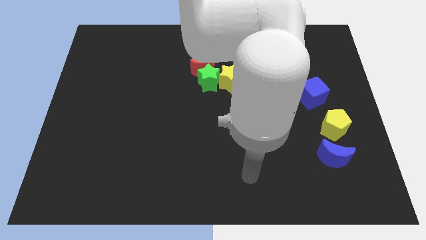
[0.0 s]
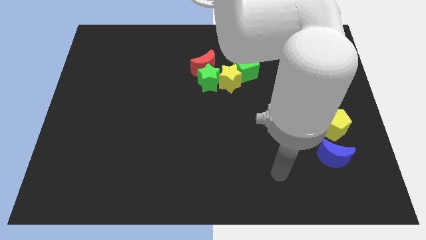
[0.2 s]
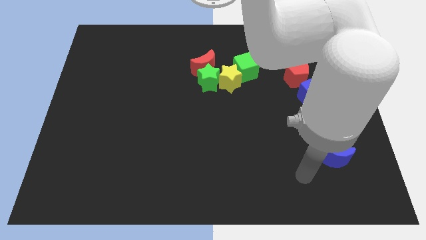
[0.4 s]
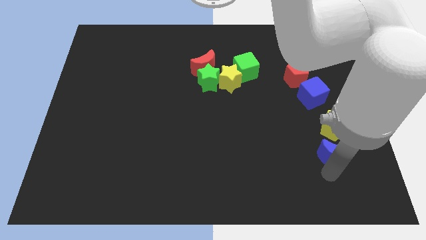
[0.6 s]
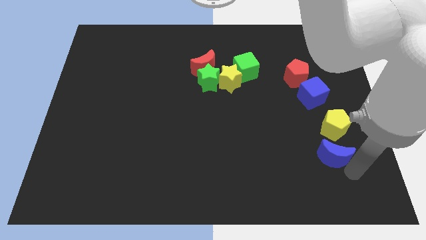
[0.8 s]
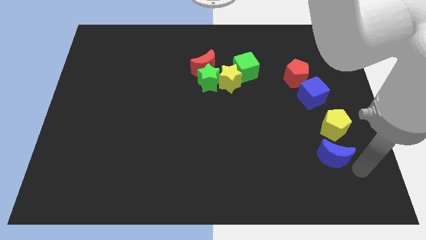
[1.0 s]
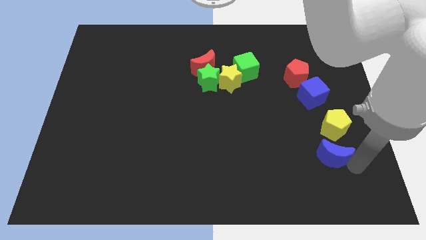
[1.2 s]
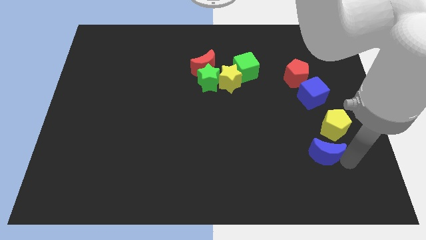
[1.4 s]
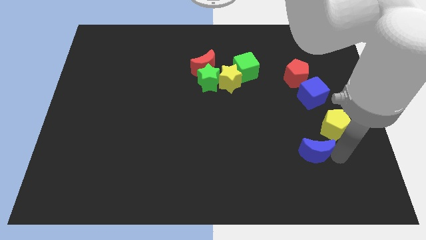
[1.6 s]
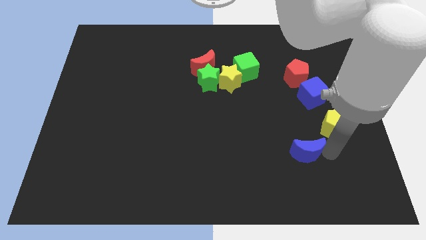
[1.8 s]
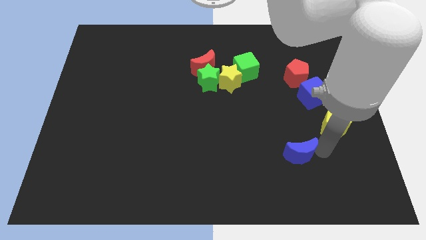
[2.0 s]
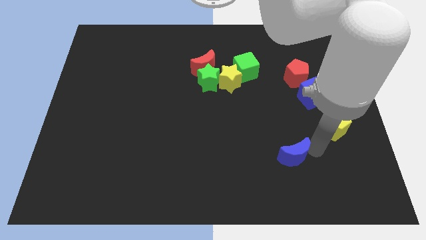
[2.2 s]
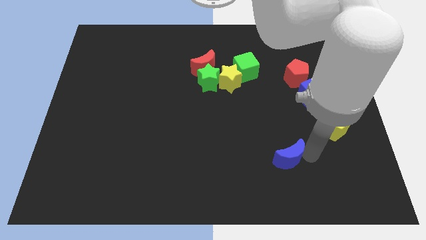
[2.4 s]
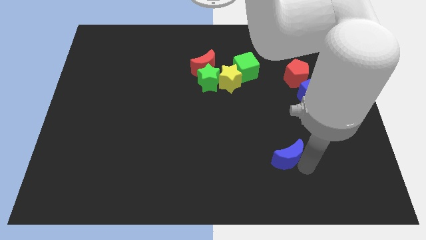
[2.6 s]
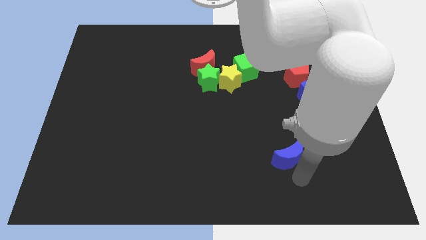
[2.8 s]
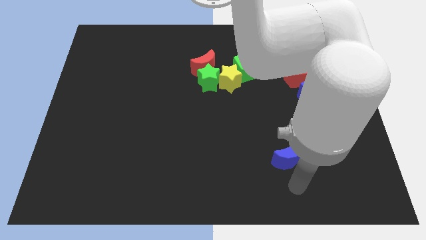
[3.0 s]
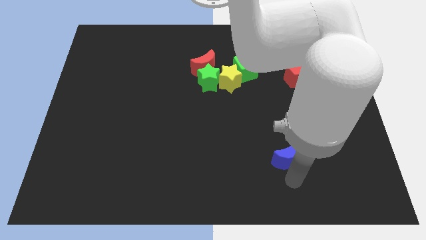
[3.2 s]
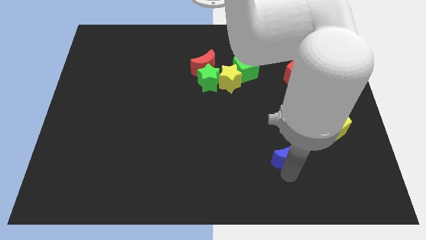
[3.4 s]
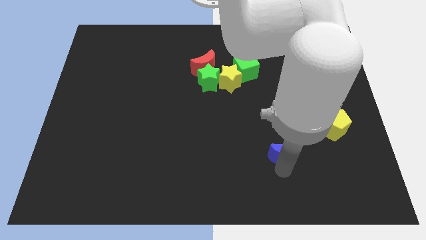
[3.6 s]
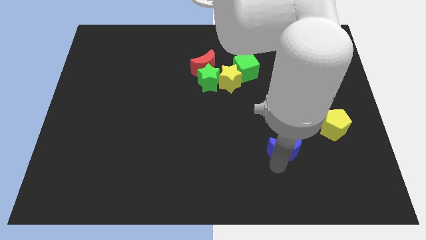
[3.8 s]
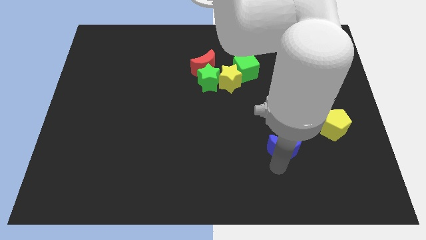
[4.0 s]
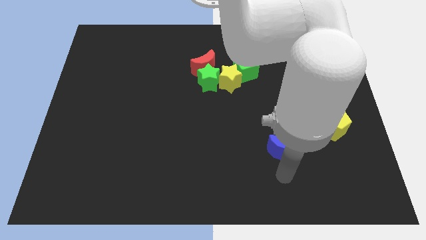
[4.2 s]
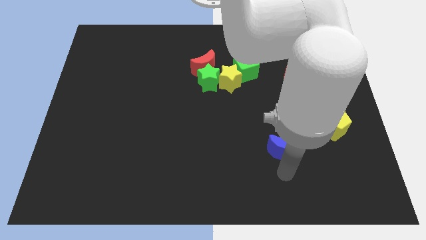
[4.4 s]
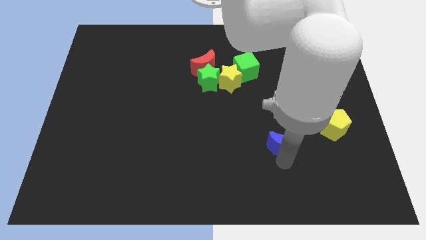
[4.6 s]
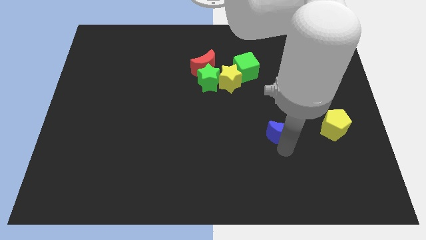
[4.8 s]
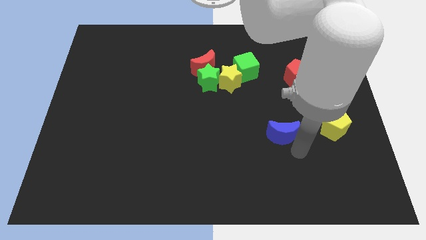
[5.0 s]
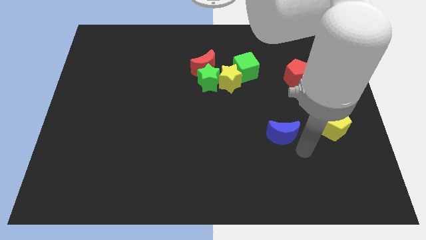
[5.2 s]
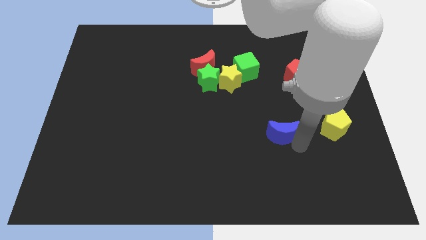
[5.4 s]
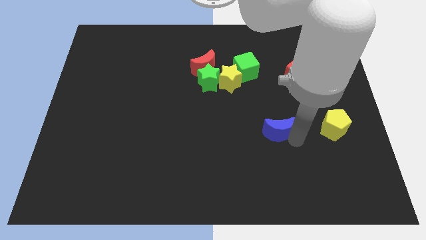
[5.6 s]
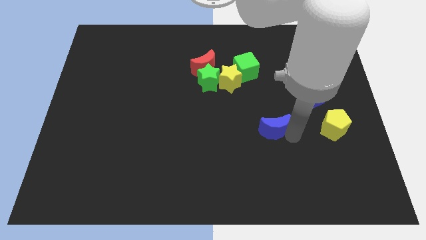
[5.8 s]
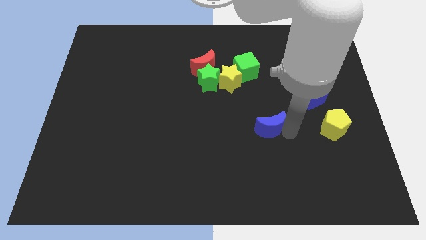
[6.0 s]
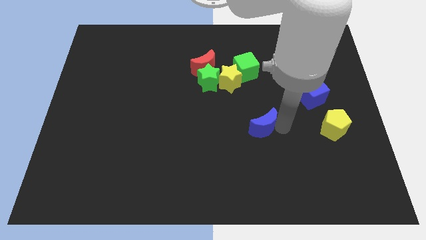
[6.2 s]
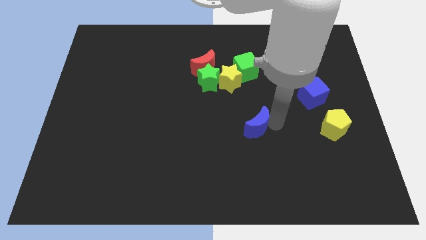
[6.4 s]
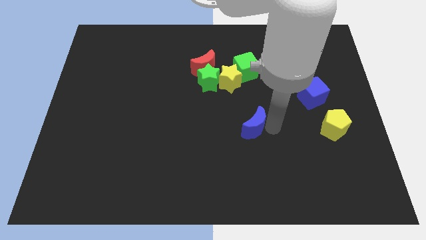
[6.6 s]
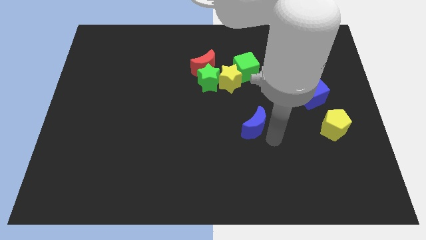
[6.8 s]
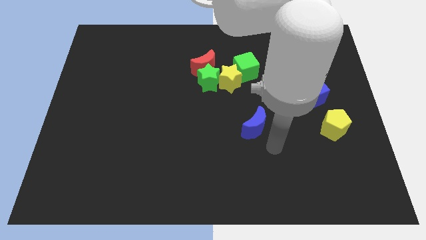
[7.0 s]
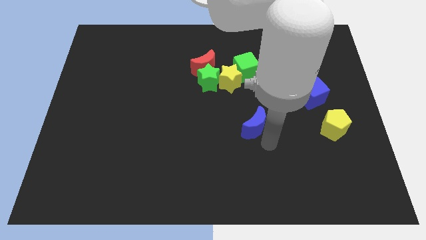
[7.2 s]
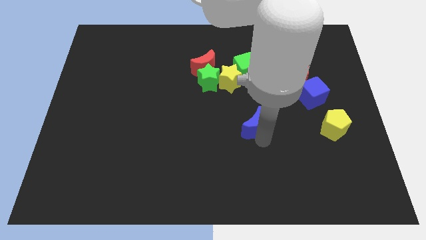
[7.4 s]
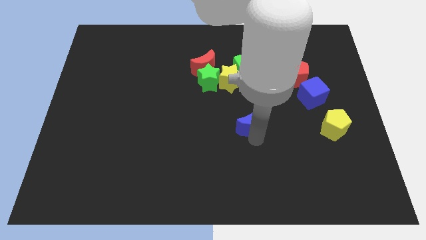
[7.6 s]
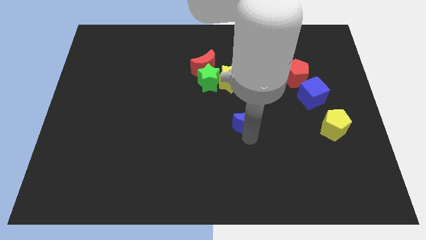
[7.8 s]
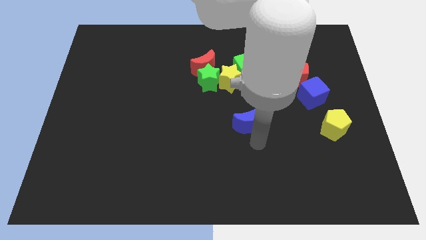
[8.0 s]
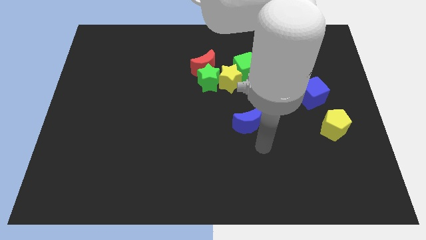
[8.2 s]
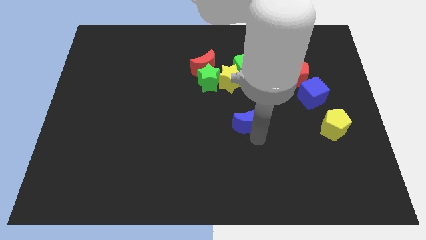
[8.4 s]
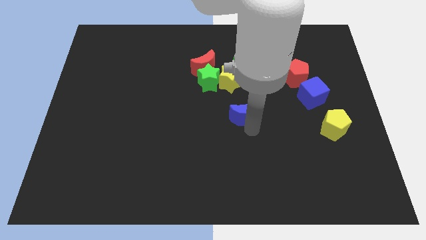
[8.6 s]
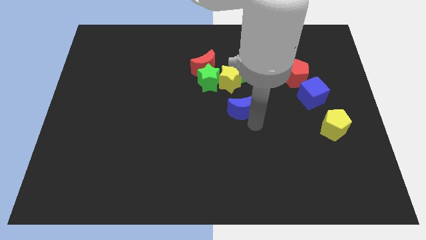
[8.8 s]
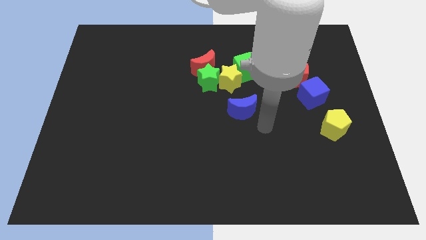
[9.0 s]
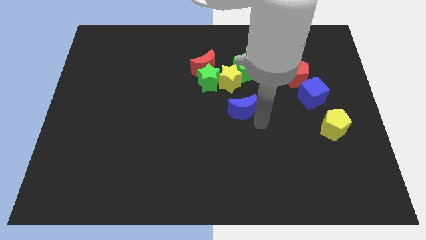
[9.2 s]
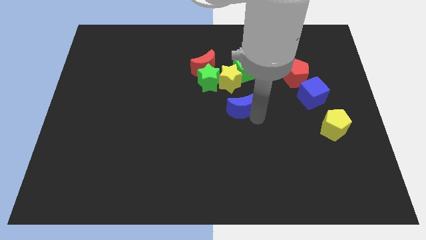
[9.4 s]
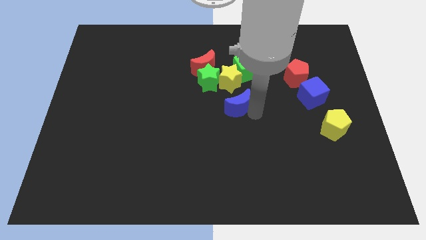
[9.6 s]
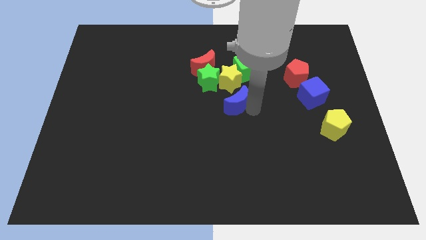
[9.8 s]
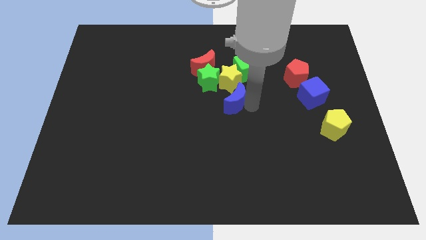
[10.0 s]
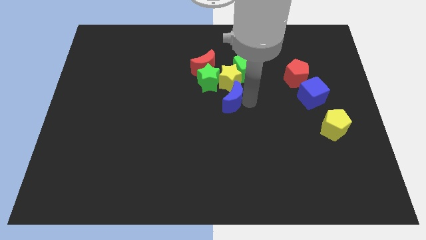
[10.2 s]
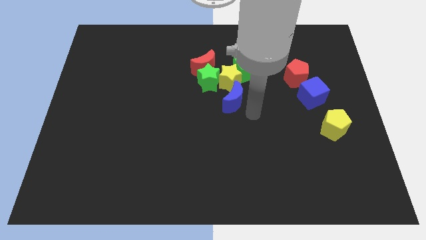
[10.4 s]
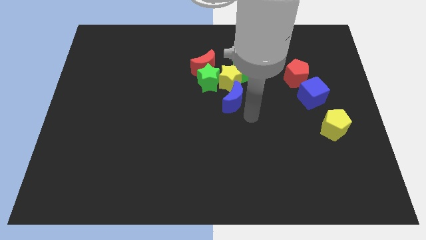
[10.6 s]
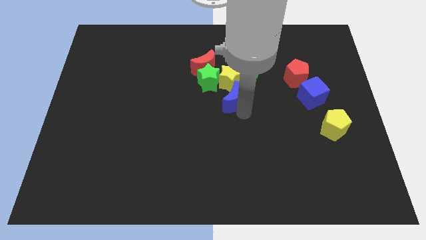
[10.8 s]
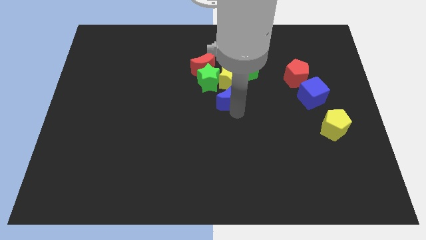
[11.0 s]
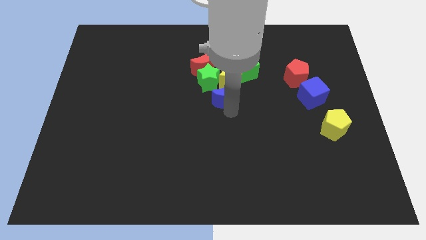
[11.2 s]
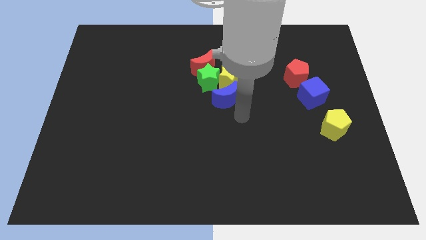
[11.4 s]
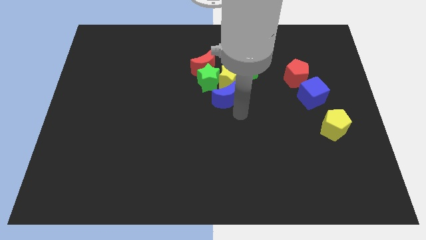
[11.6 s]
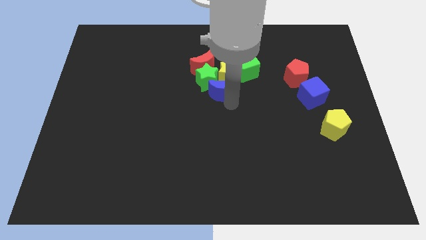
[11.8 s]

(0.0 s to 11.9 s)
slide the blue moon close to the green star

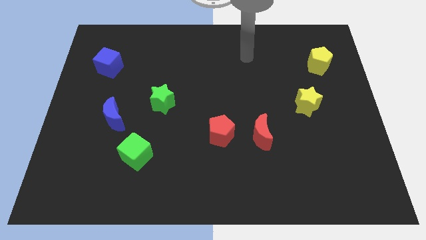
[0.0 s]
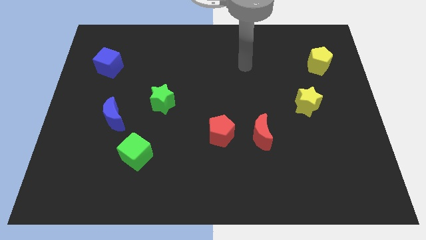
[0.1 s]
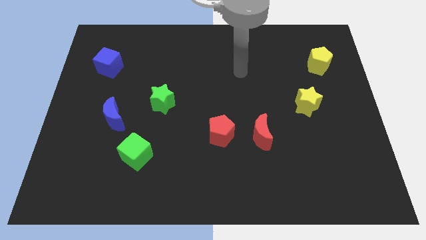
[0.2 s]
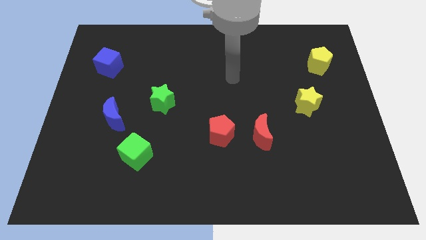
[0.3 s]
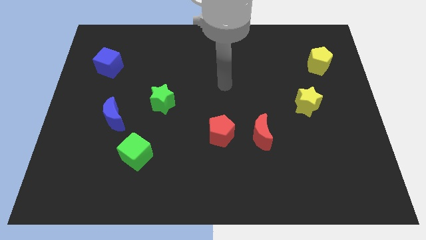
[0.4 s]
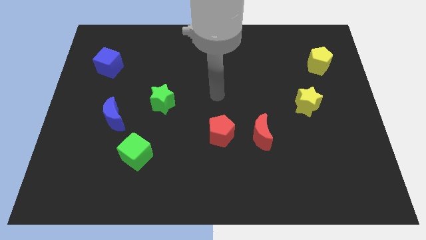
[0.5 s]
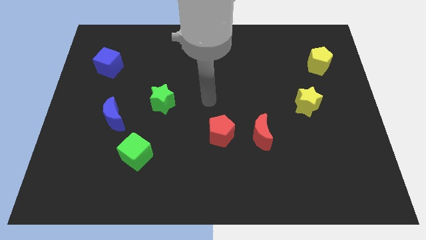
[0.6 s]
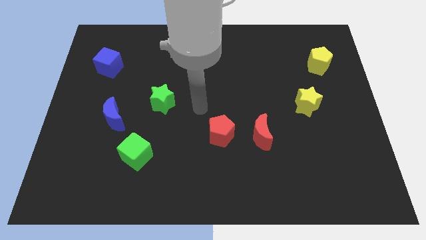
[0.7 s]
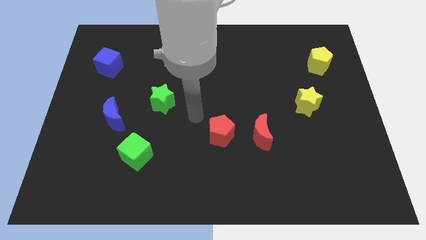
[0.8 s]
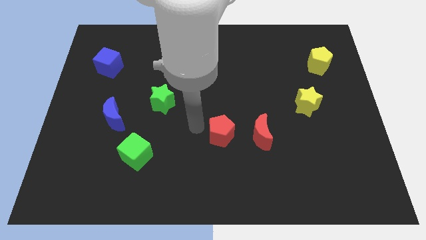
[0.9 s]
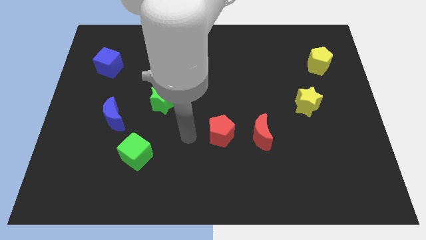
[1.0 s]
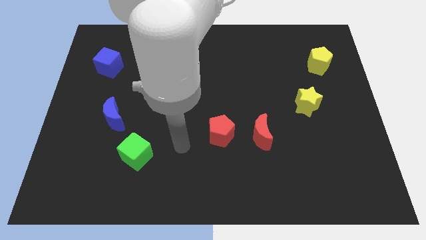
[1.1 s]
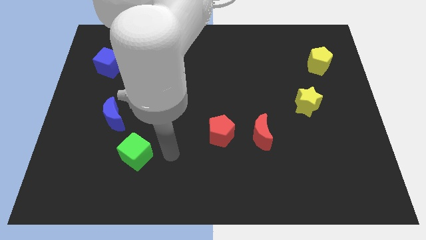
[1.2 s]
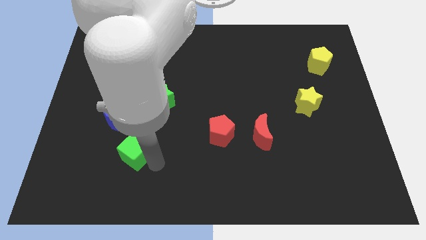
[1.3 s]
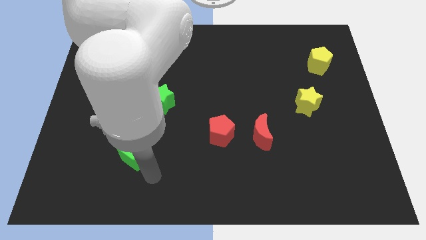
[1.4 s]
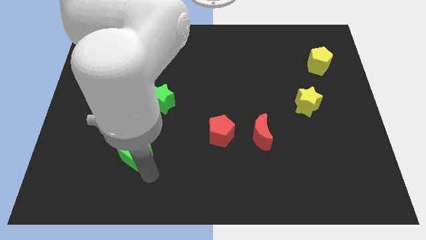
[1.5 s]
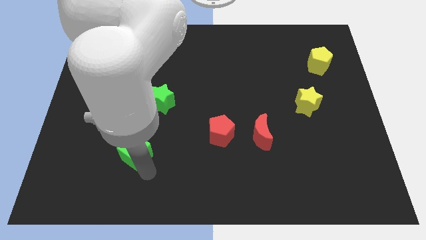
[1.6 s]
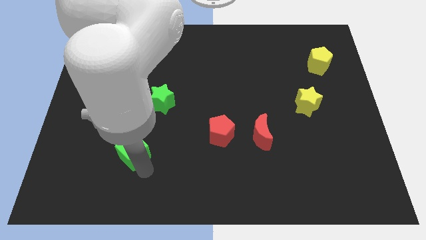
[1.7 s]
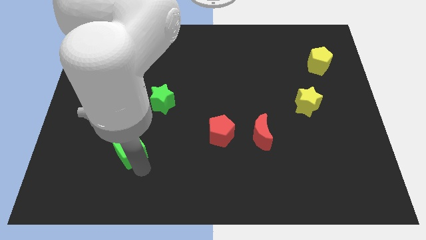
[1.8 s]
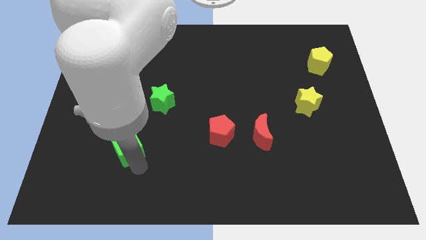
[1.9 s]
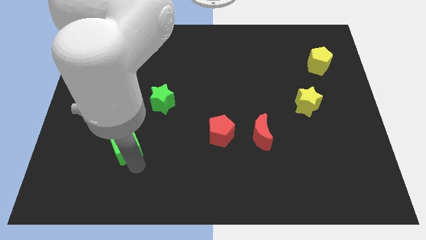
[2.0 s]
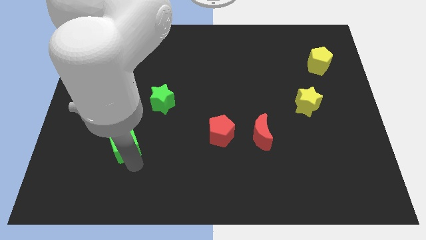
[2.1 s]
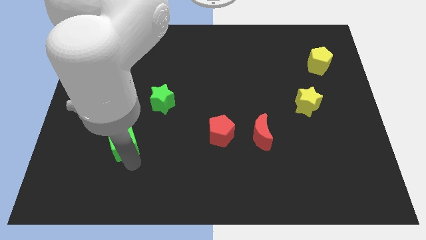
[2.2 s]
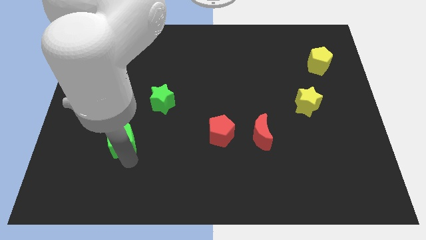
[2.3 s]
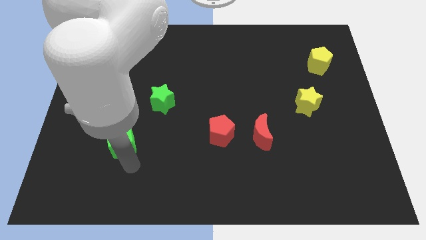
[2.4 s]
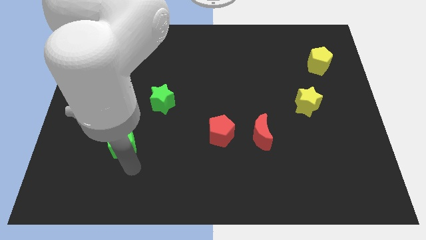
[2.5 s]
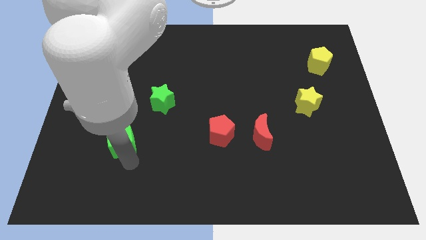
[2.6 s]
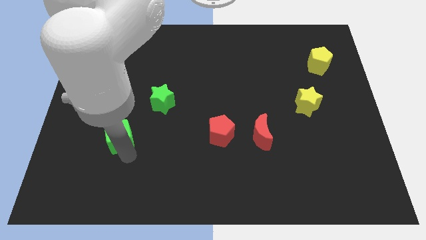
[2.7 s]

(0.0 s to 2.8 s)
slide the green cube close to the blue moon
